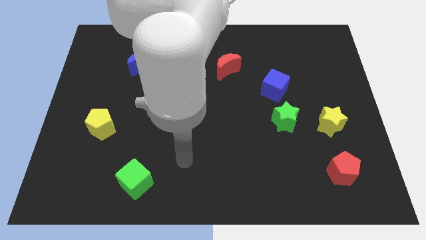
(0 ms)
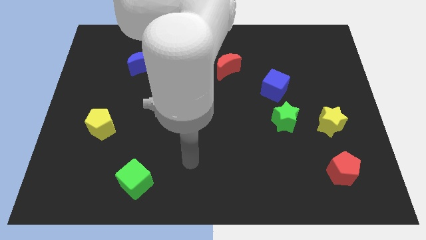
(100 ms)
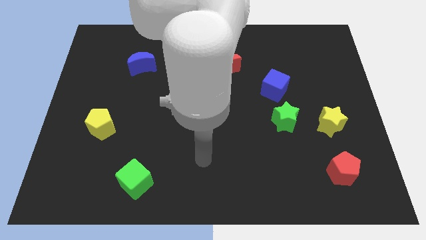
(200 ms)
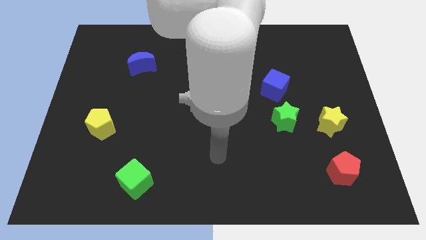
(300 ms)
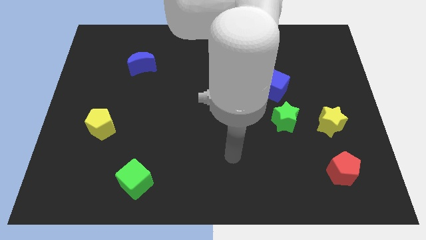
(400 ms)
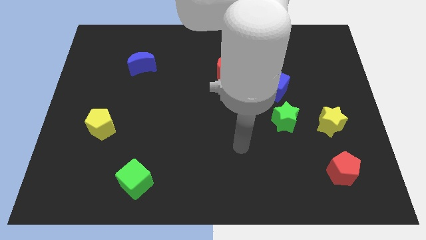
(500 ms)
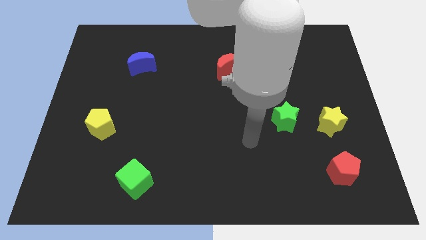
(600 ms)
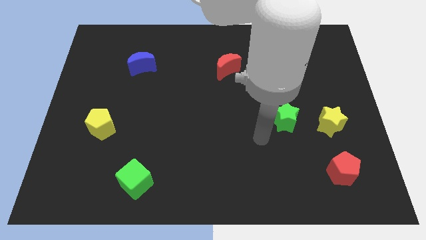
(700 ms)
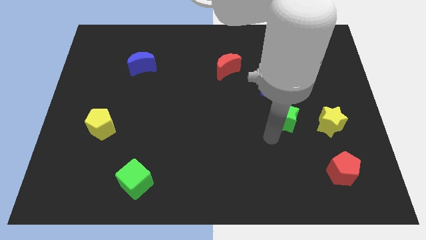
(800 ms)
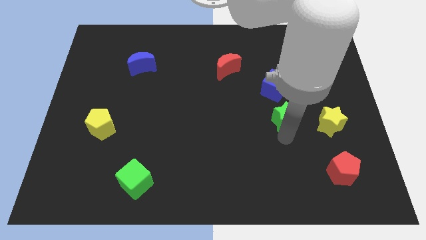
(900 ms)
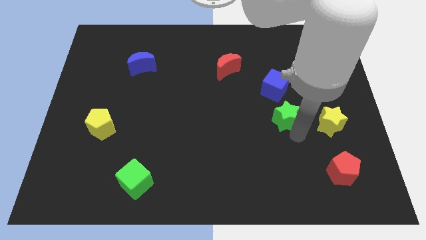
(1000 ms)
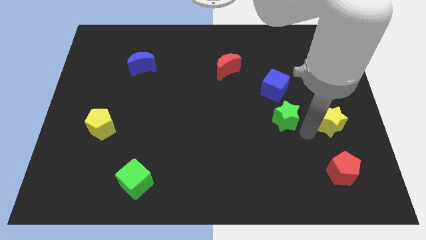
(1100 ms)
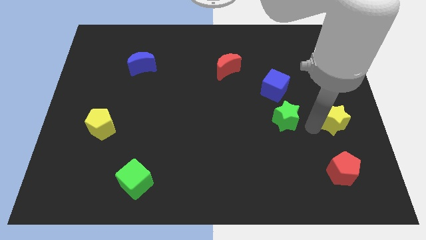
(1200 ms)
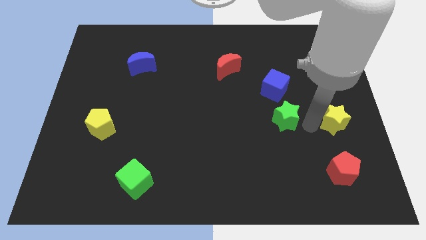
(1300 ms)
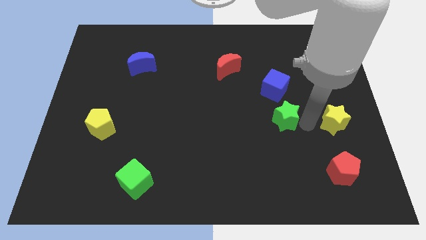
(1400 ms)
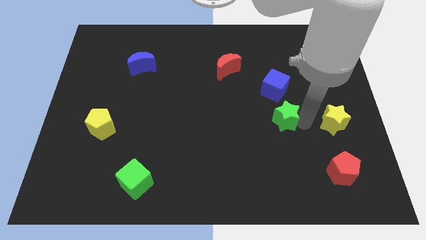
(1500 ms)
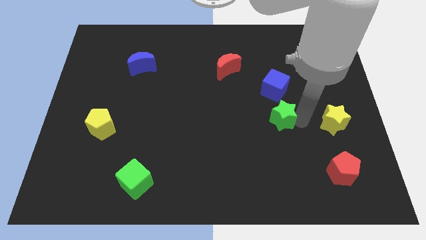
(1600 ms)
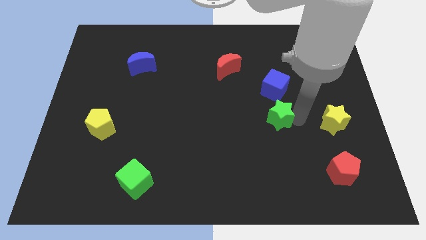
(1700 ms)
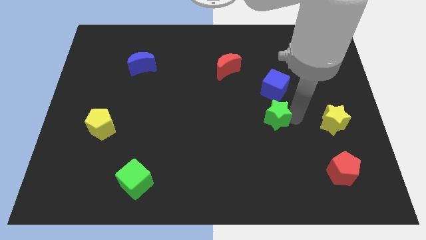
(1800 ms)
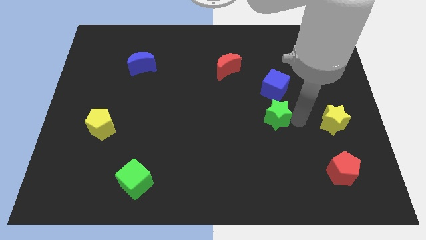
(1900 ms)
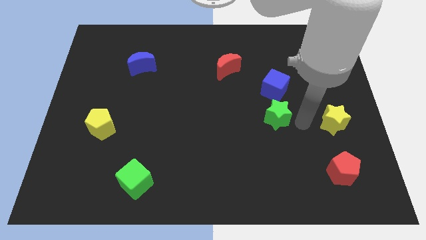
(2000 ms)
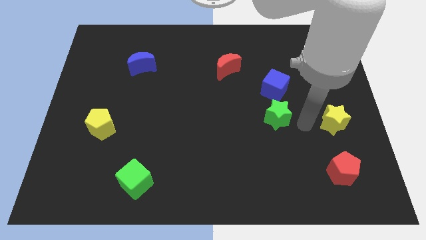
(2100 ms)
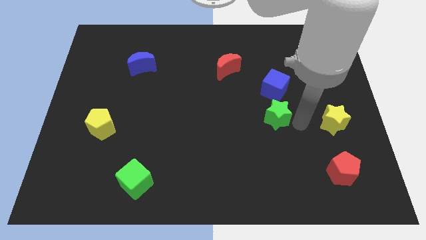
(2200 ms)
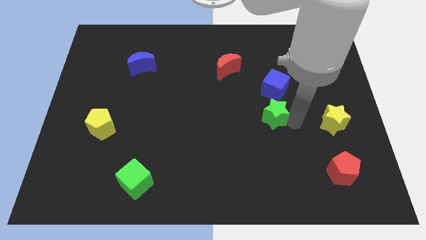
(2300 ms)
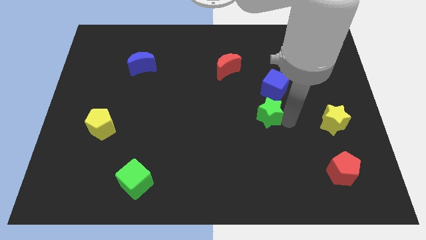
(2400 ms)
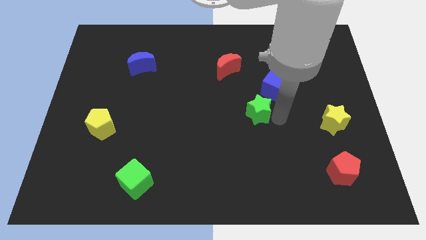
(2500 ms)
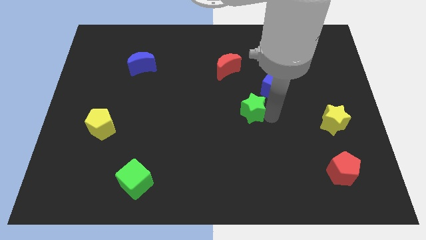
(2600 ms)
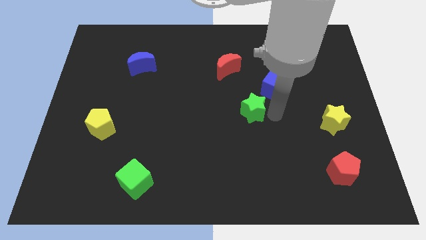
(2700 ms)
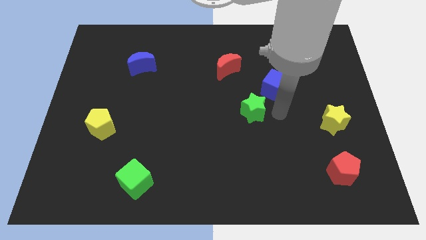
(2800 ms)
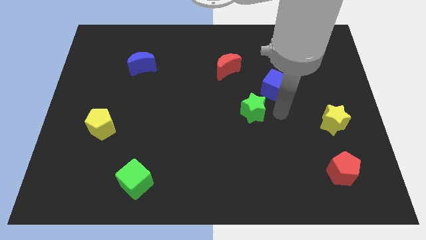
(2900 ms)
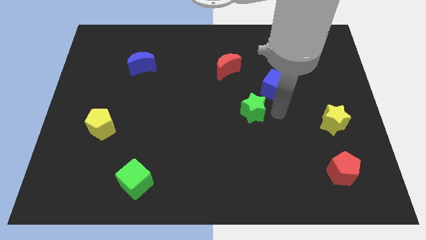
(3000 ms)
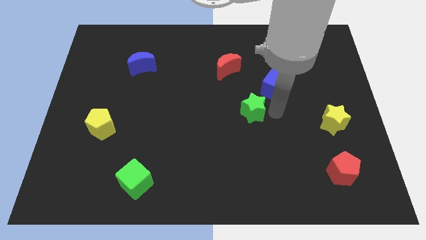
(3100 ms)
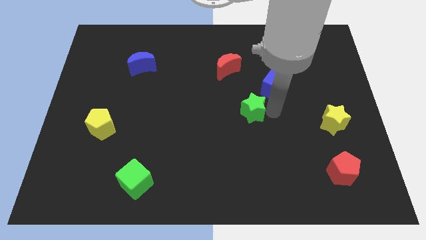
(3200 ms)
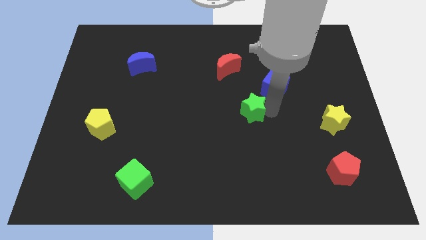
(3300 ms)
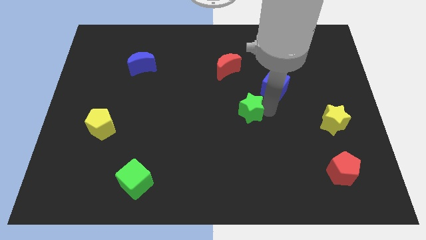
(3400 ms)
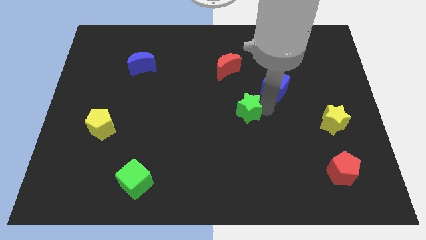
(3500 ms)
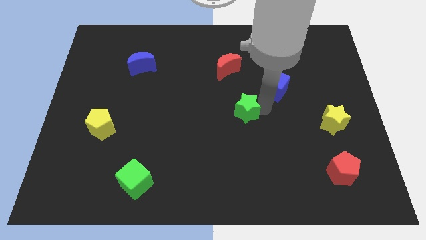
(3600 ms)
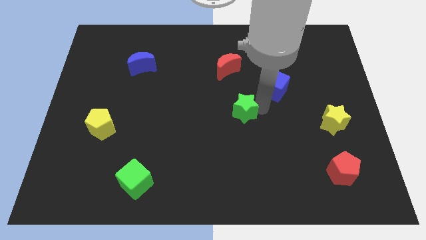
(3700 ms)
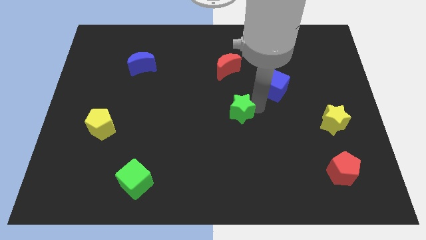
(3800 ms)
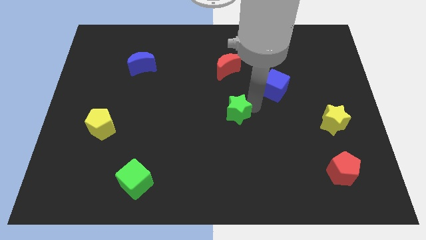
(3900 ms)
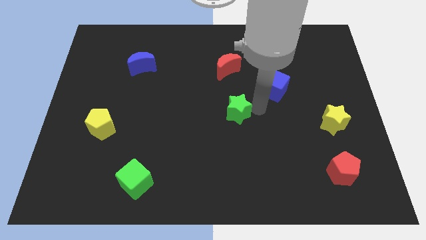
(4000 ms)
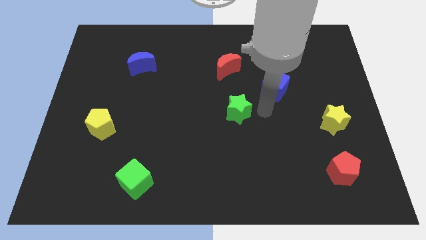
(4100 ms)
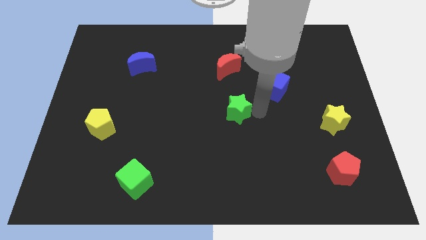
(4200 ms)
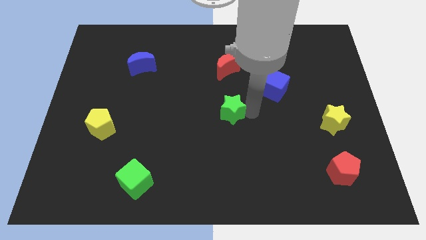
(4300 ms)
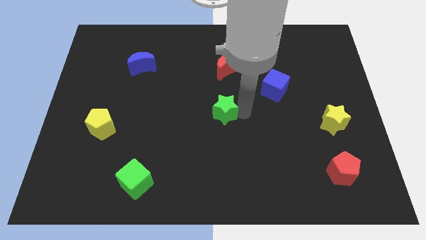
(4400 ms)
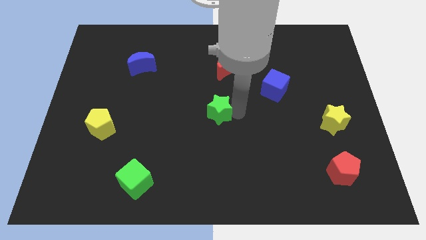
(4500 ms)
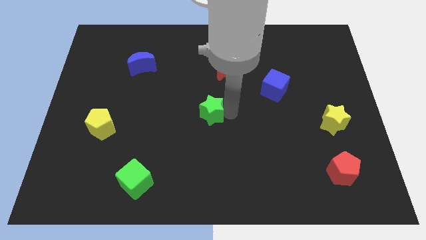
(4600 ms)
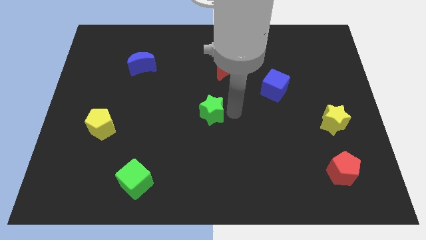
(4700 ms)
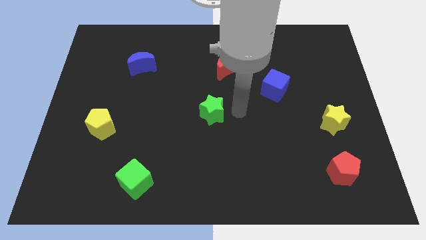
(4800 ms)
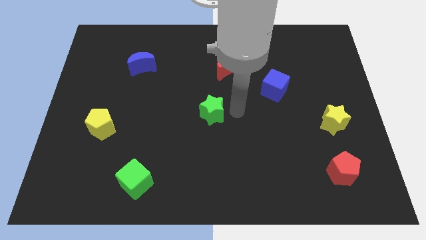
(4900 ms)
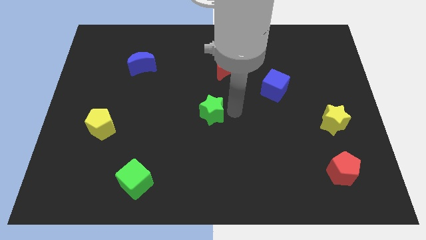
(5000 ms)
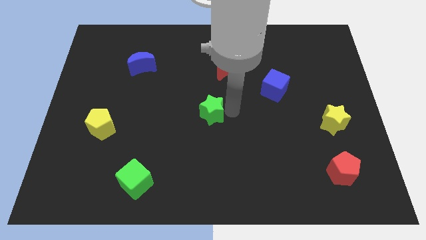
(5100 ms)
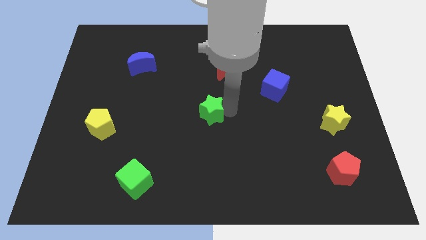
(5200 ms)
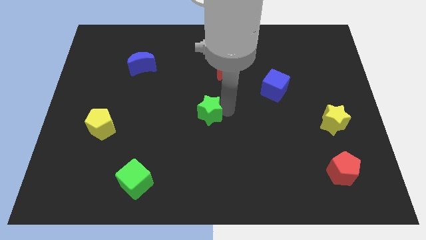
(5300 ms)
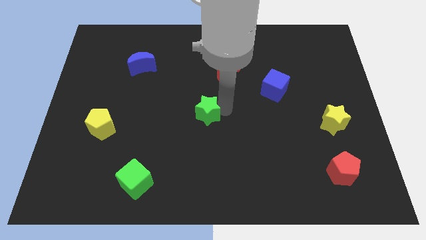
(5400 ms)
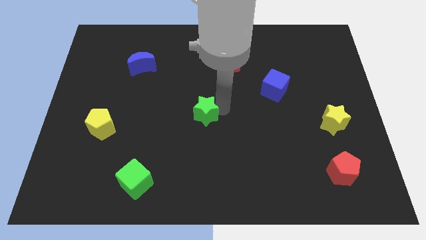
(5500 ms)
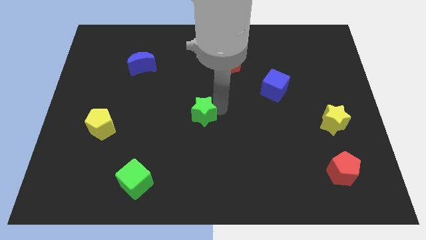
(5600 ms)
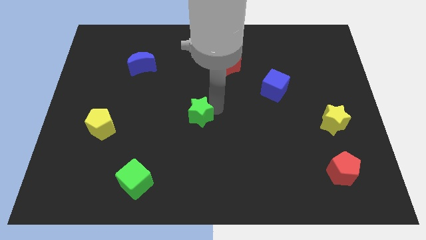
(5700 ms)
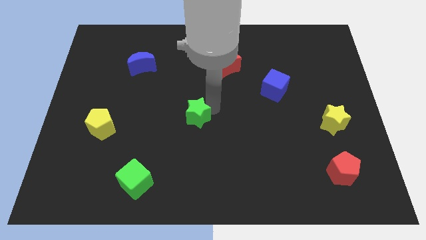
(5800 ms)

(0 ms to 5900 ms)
move the green star left

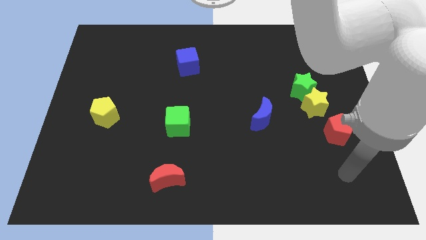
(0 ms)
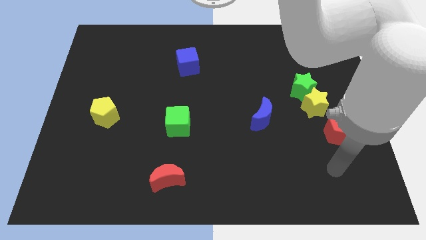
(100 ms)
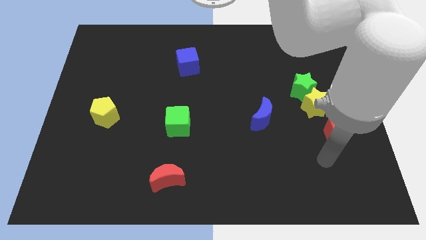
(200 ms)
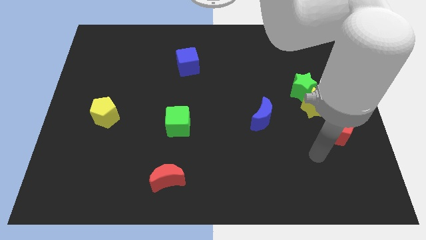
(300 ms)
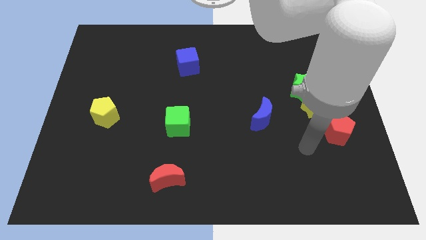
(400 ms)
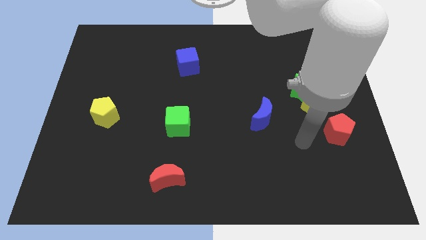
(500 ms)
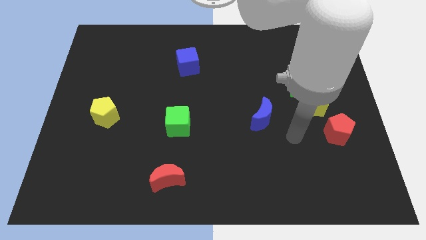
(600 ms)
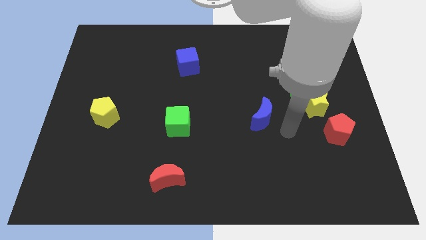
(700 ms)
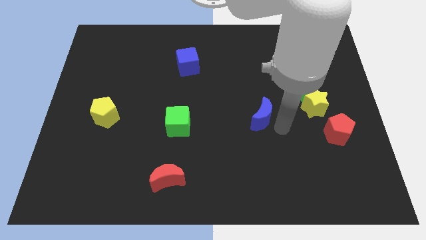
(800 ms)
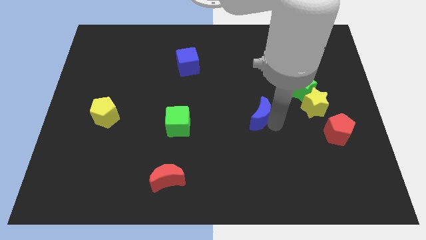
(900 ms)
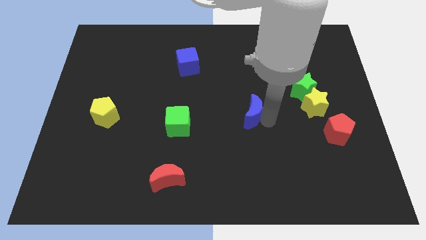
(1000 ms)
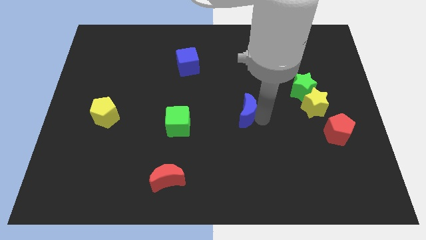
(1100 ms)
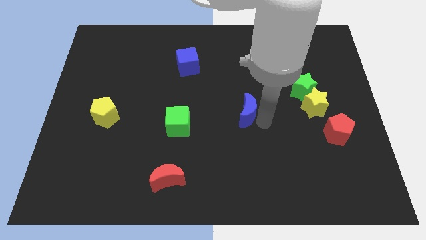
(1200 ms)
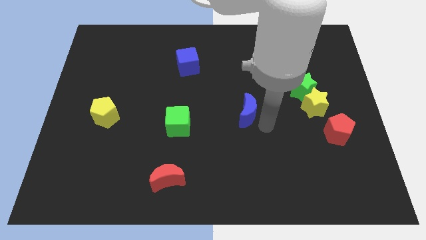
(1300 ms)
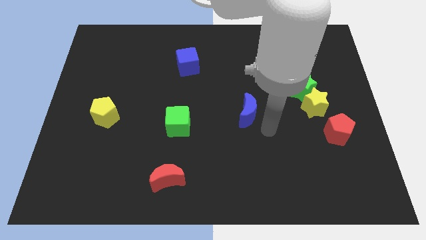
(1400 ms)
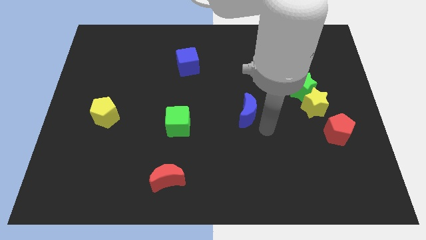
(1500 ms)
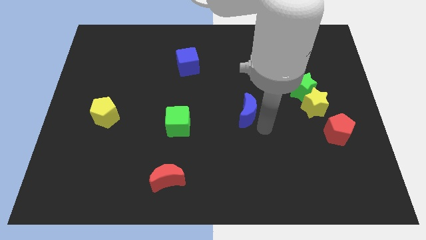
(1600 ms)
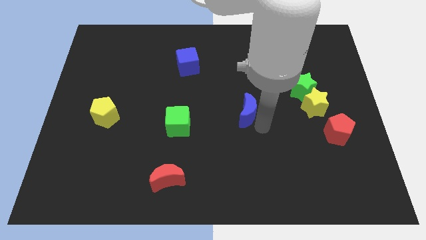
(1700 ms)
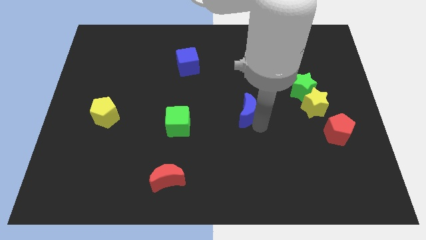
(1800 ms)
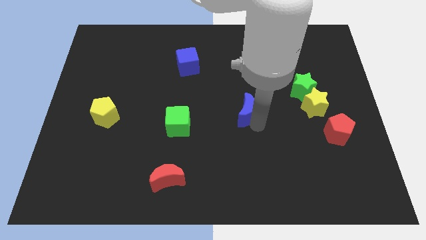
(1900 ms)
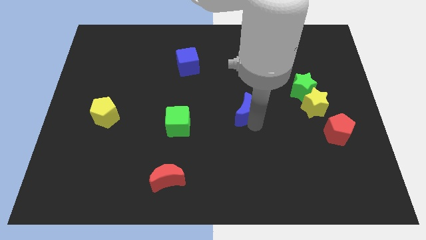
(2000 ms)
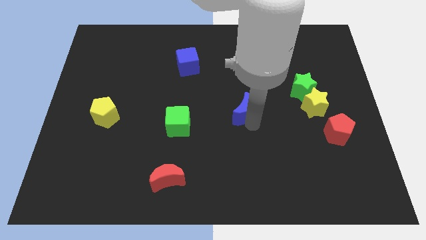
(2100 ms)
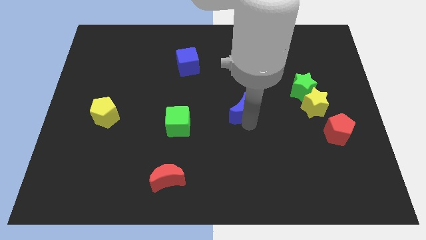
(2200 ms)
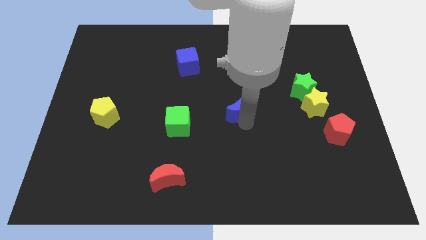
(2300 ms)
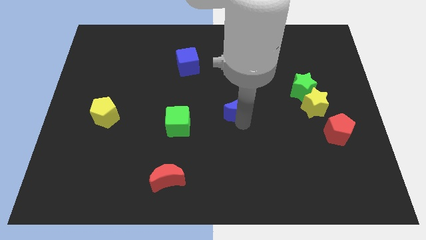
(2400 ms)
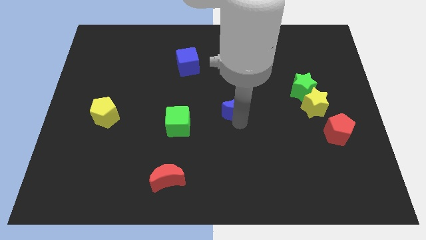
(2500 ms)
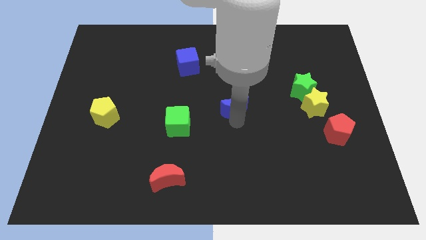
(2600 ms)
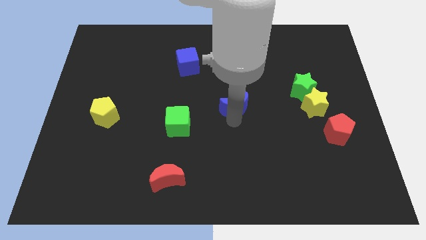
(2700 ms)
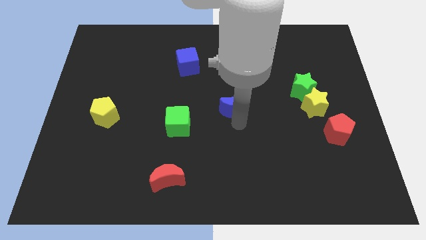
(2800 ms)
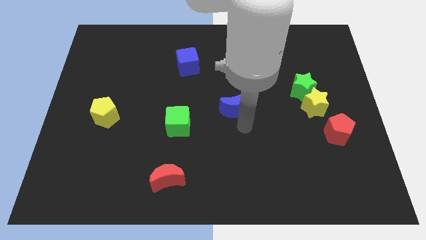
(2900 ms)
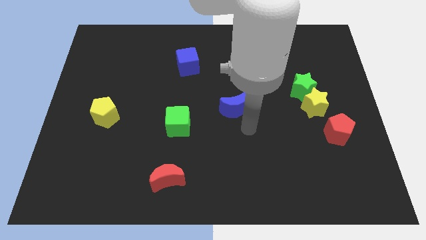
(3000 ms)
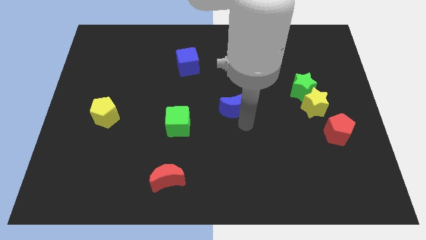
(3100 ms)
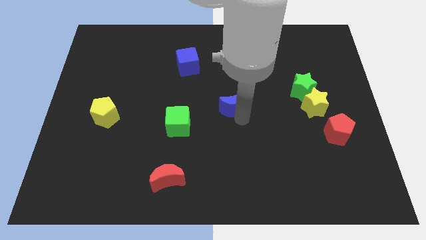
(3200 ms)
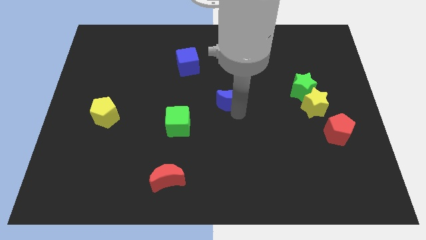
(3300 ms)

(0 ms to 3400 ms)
slide the blue moon up and to the left diagonally a little bit
